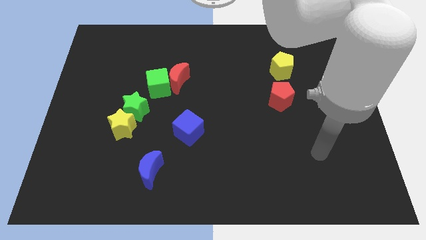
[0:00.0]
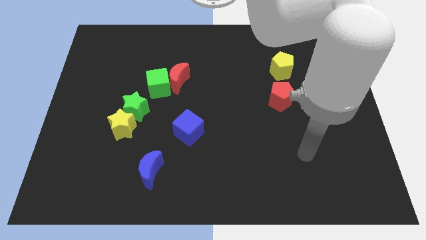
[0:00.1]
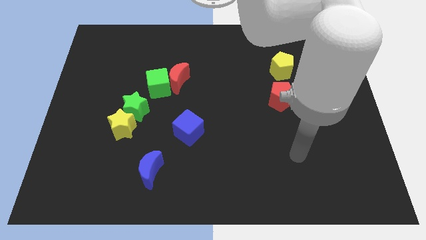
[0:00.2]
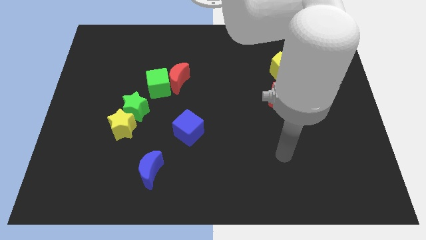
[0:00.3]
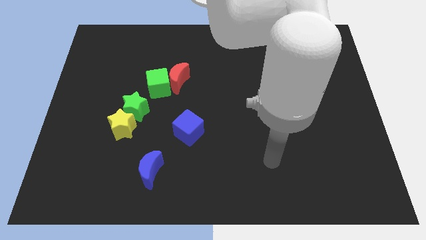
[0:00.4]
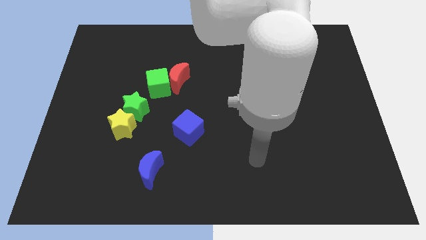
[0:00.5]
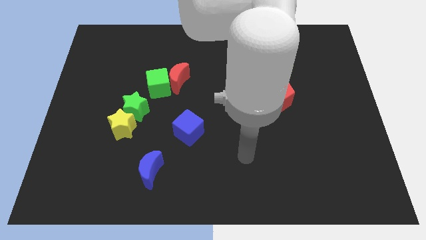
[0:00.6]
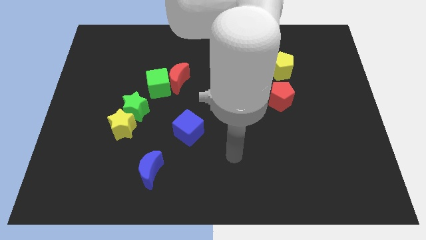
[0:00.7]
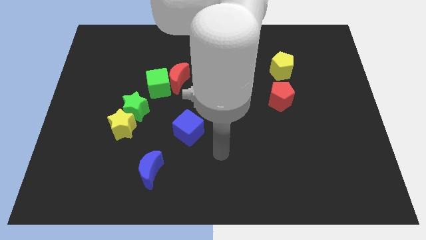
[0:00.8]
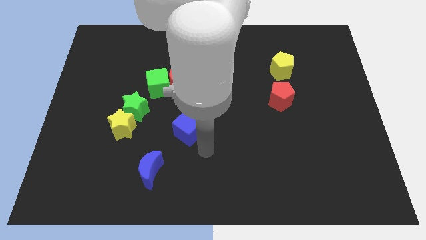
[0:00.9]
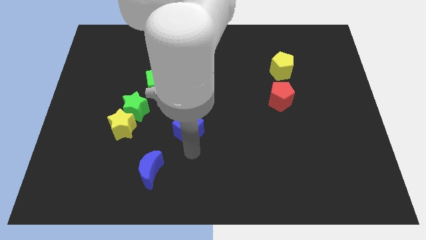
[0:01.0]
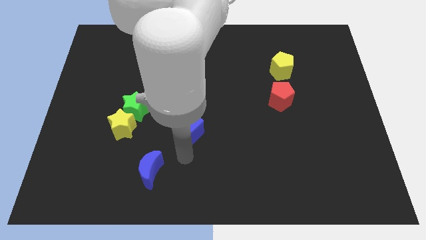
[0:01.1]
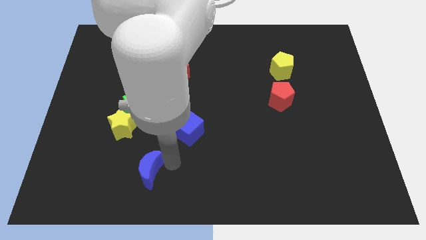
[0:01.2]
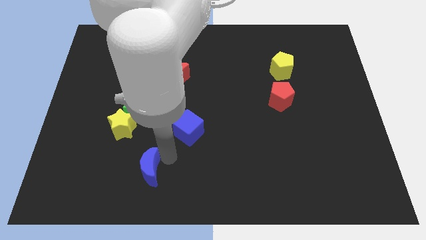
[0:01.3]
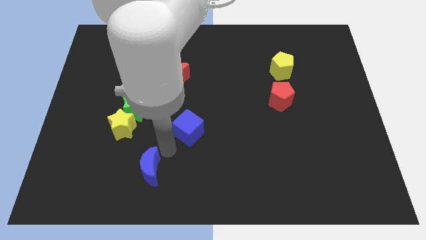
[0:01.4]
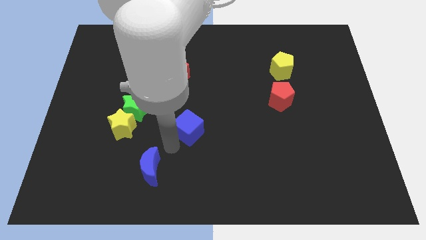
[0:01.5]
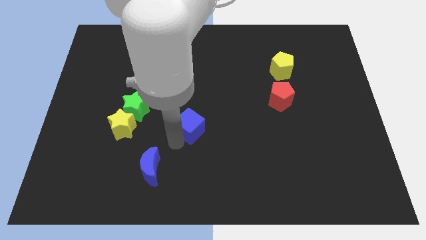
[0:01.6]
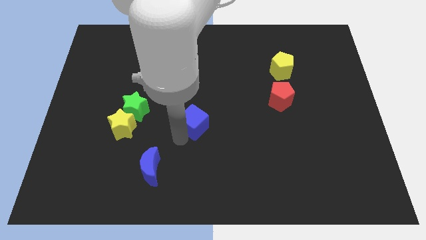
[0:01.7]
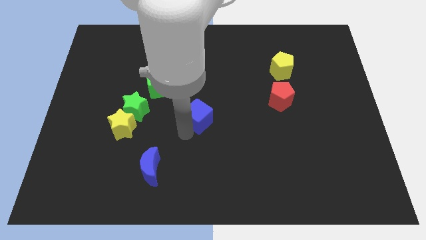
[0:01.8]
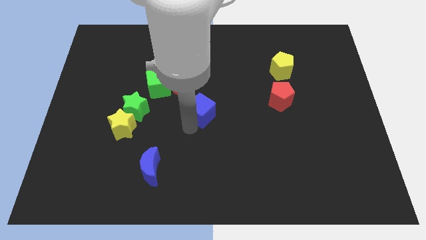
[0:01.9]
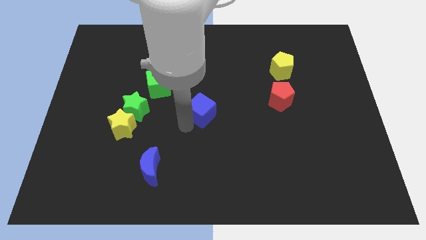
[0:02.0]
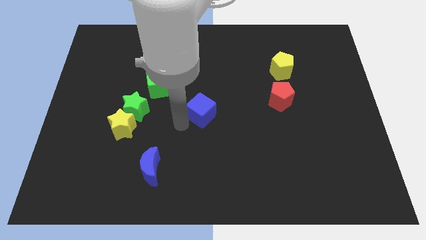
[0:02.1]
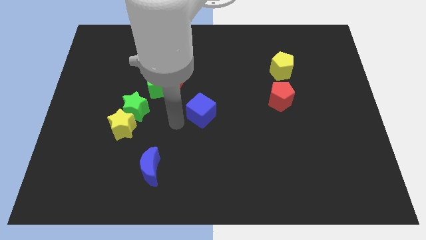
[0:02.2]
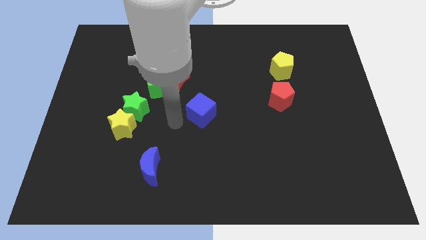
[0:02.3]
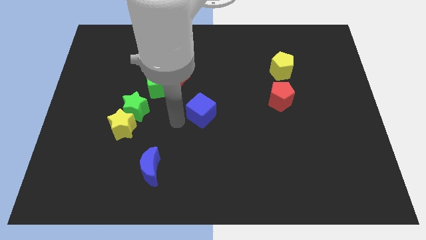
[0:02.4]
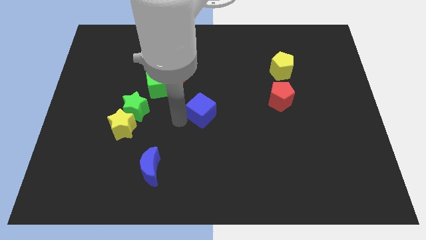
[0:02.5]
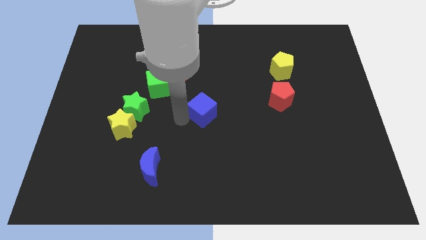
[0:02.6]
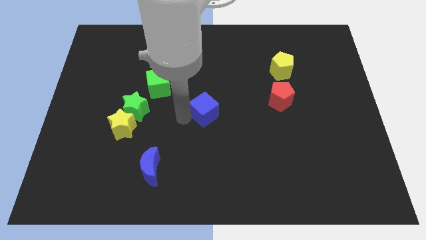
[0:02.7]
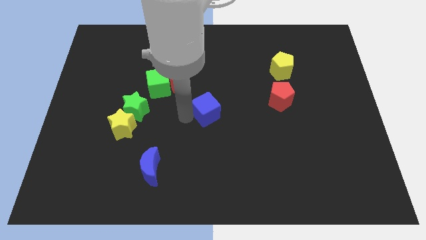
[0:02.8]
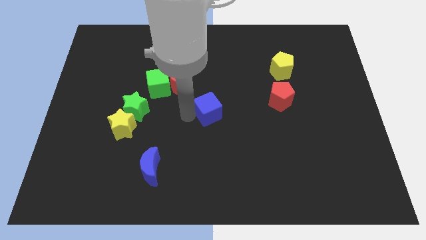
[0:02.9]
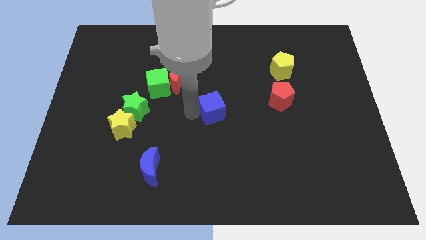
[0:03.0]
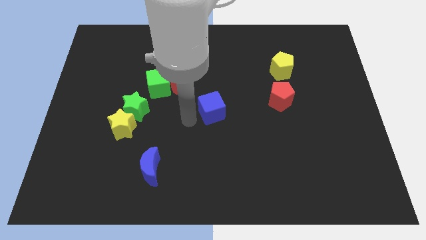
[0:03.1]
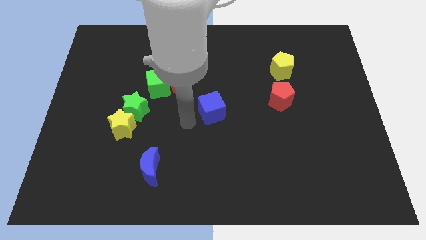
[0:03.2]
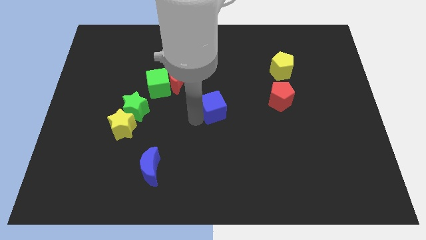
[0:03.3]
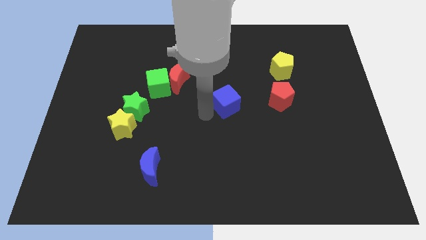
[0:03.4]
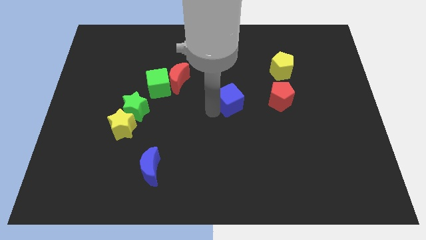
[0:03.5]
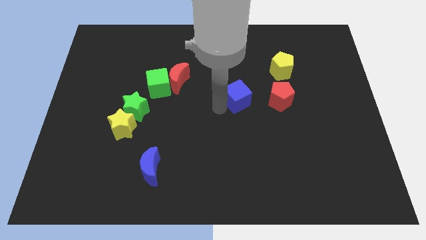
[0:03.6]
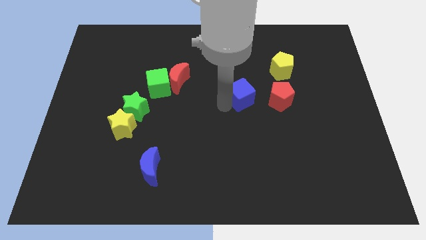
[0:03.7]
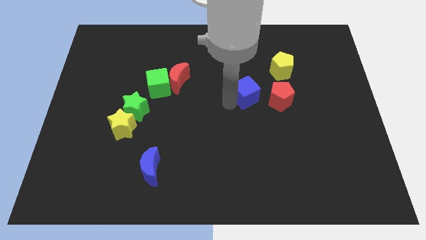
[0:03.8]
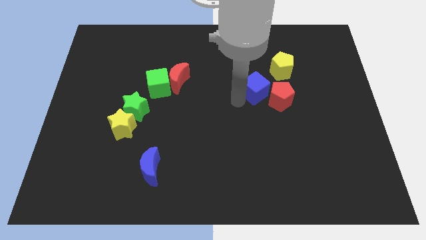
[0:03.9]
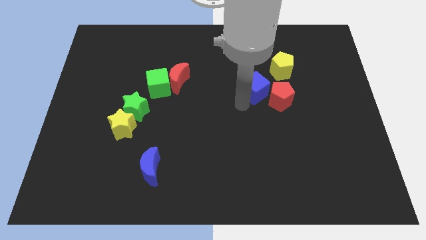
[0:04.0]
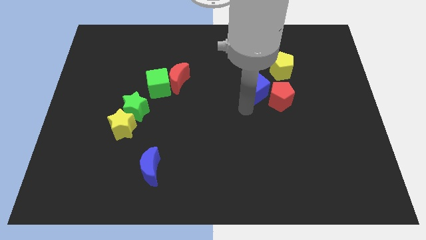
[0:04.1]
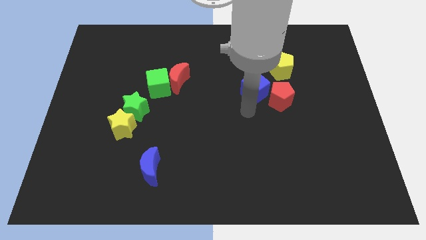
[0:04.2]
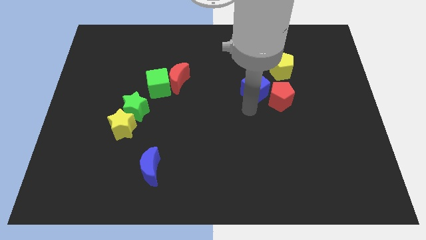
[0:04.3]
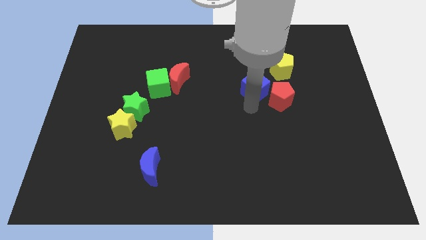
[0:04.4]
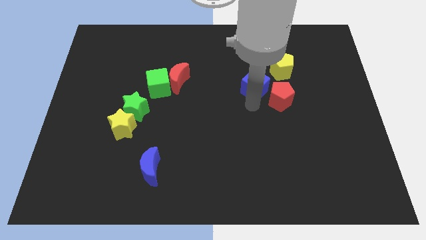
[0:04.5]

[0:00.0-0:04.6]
push the blue cube up and right

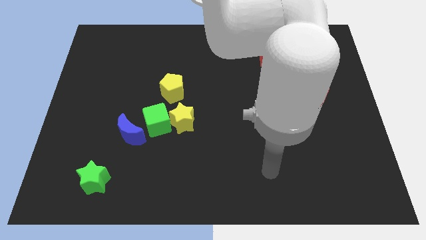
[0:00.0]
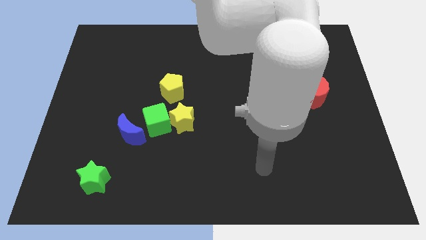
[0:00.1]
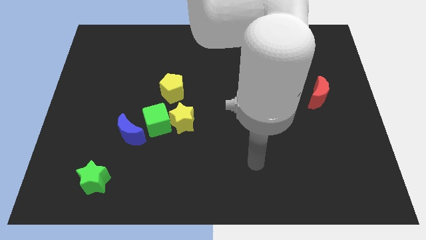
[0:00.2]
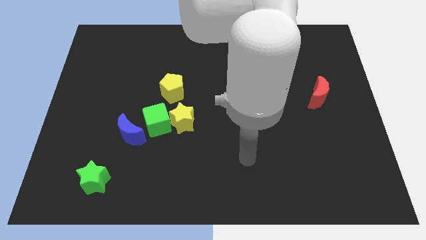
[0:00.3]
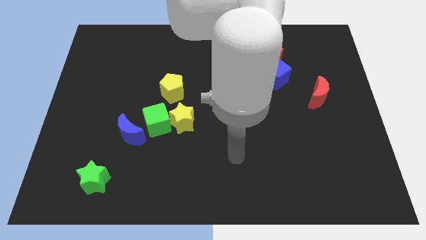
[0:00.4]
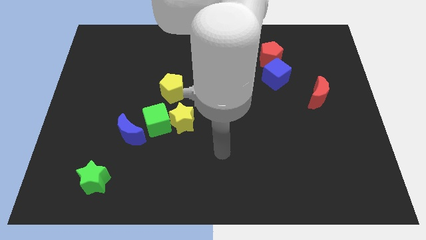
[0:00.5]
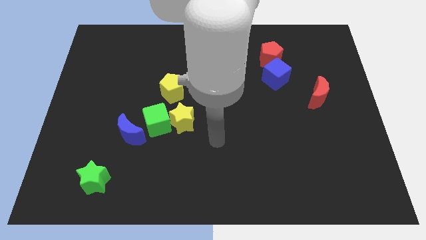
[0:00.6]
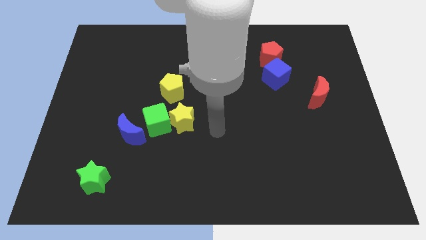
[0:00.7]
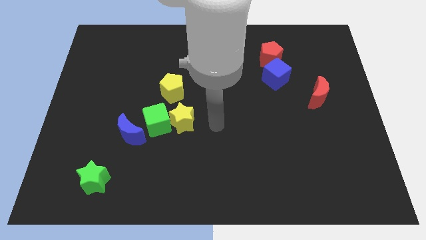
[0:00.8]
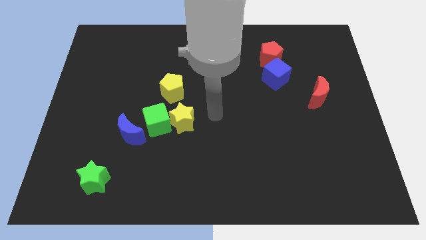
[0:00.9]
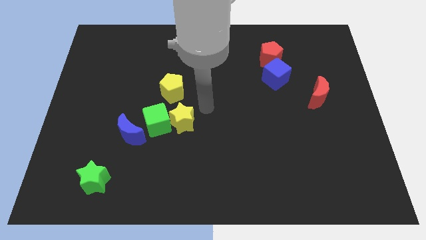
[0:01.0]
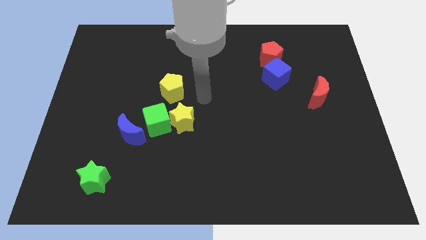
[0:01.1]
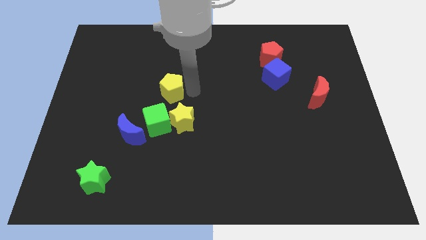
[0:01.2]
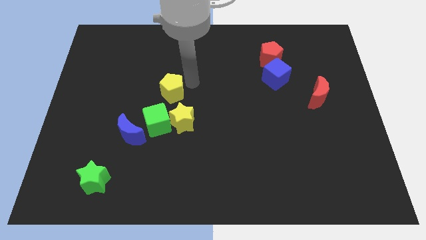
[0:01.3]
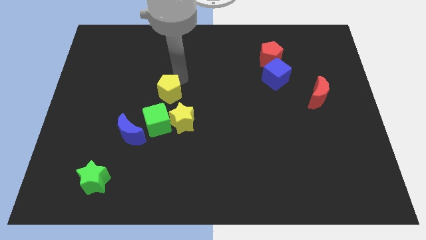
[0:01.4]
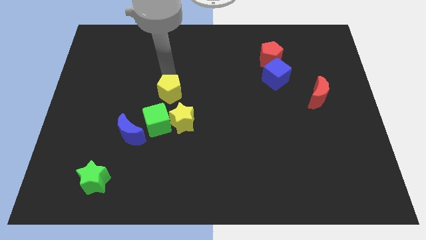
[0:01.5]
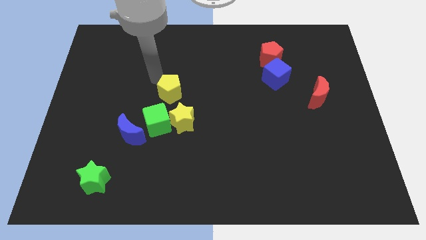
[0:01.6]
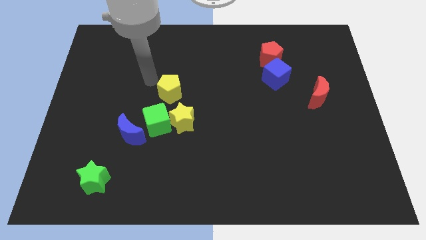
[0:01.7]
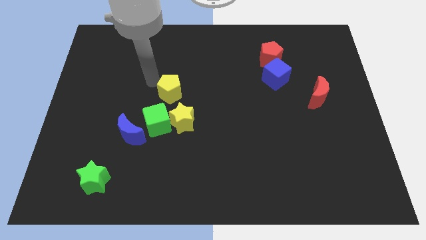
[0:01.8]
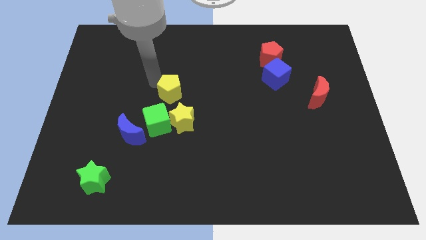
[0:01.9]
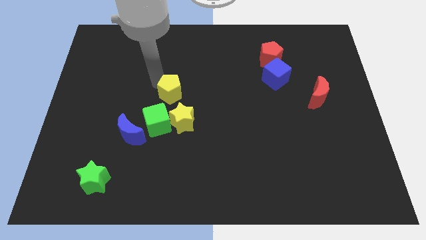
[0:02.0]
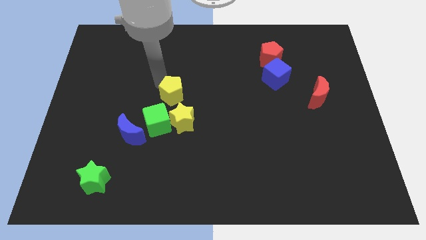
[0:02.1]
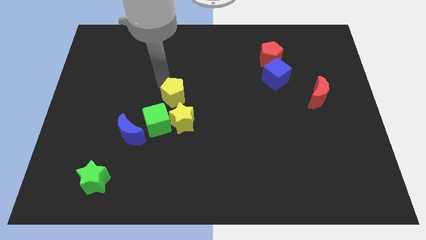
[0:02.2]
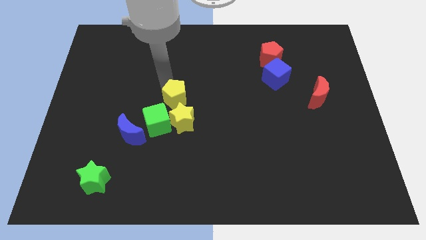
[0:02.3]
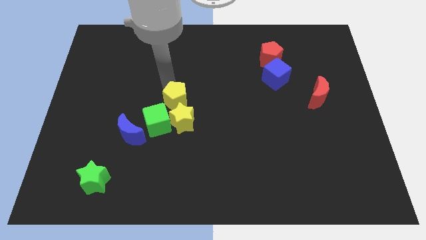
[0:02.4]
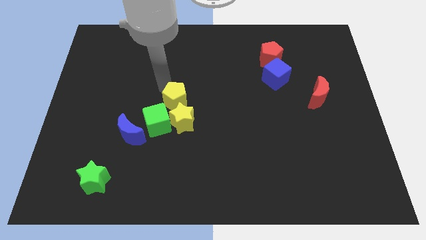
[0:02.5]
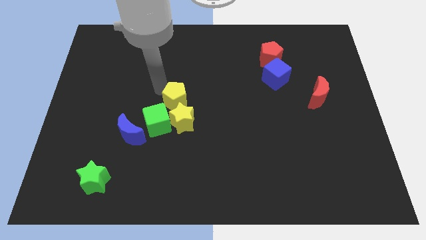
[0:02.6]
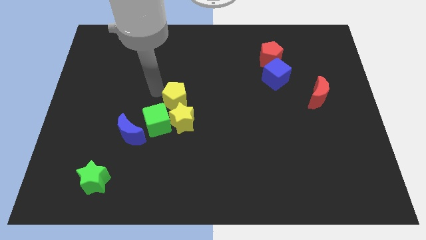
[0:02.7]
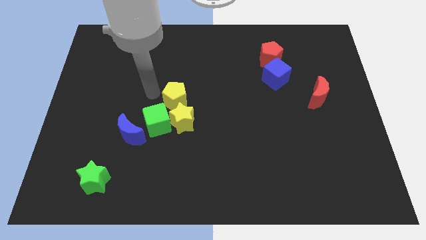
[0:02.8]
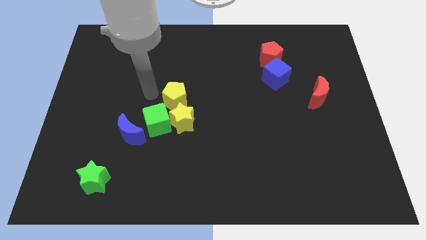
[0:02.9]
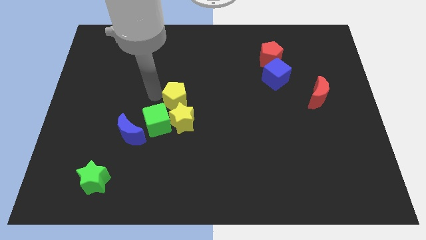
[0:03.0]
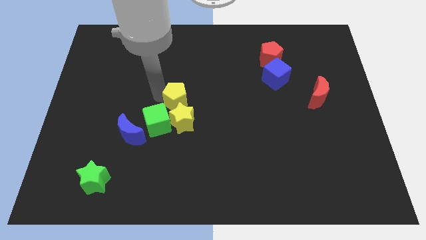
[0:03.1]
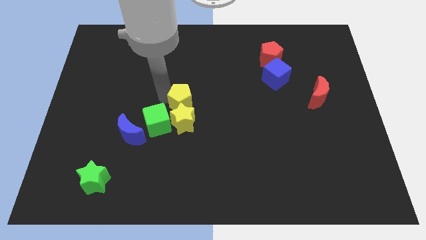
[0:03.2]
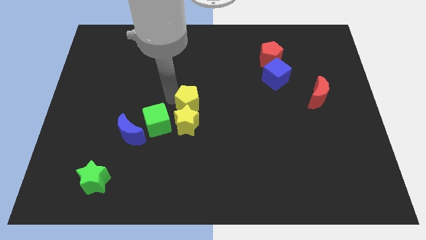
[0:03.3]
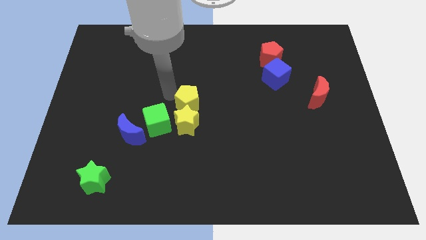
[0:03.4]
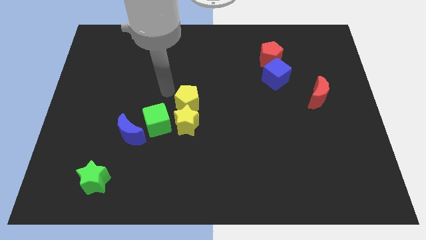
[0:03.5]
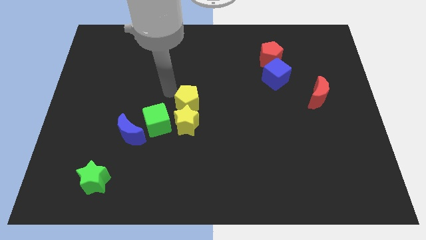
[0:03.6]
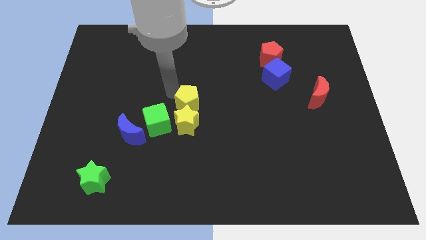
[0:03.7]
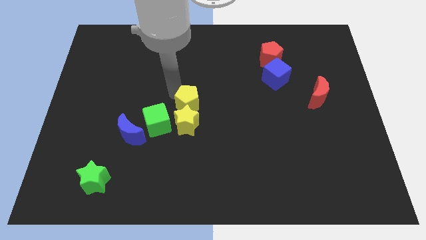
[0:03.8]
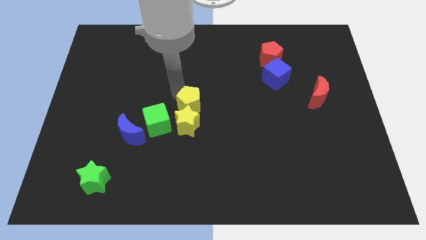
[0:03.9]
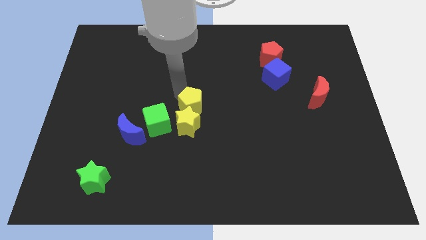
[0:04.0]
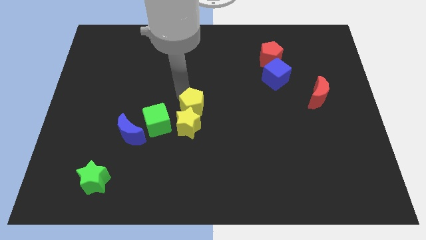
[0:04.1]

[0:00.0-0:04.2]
push the yellow pentagon a little downwards and to the right
